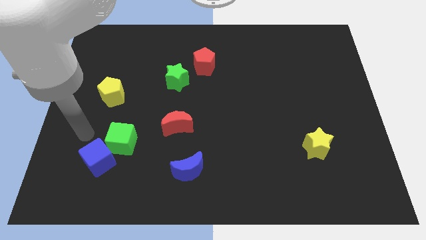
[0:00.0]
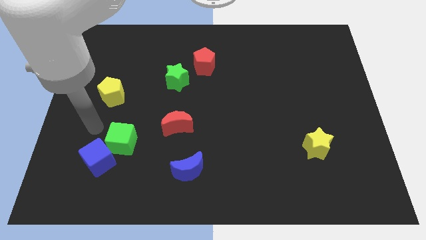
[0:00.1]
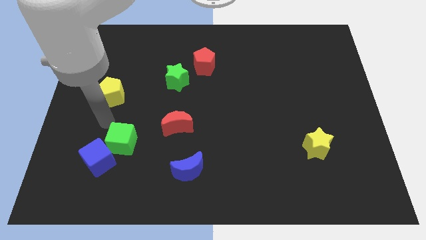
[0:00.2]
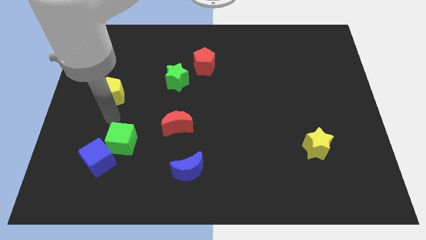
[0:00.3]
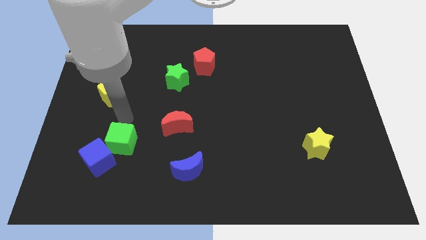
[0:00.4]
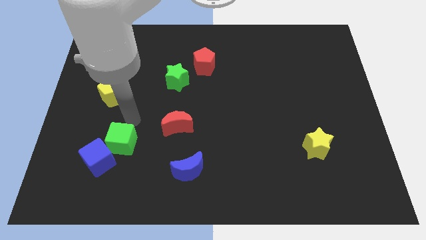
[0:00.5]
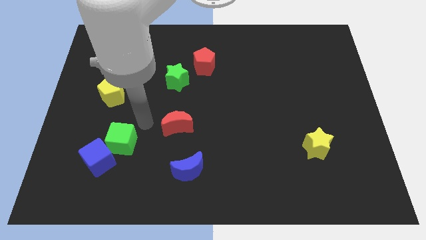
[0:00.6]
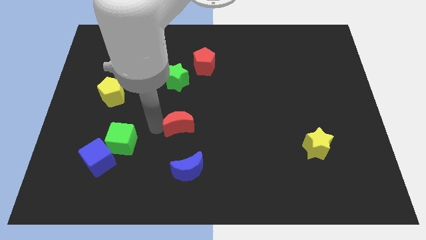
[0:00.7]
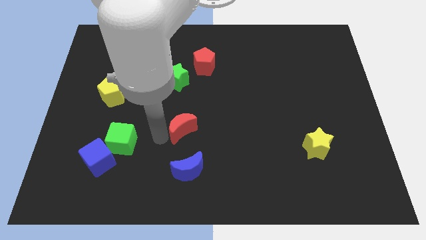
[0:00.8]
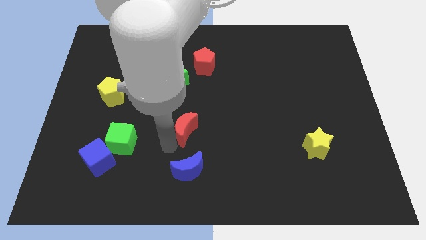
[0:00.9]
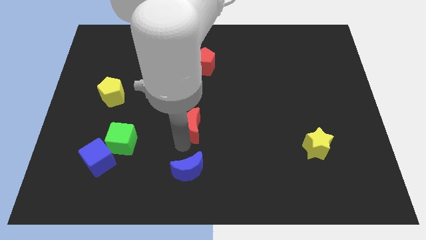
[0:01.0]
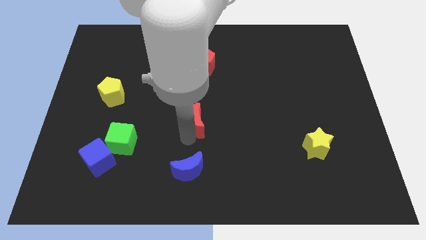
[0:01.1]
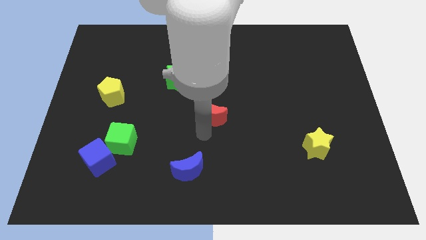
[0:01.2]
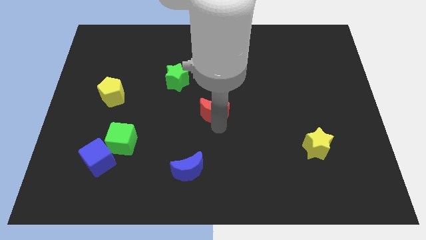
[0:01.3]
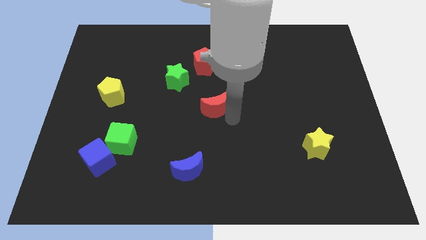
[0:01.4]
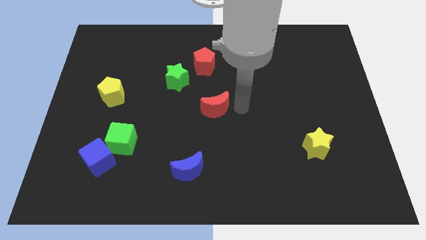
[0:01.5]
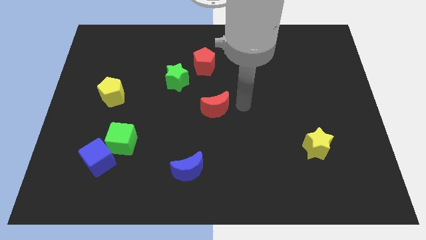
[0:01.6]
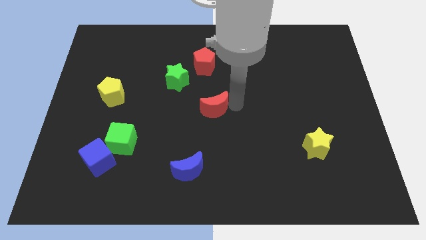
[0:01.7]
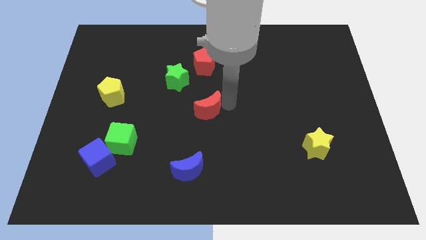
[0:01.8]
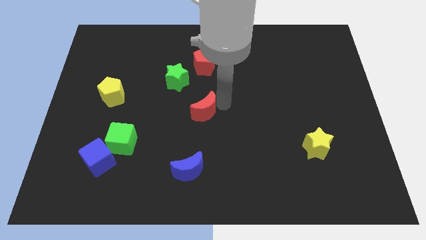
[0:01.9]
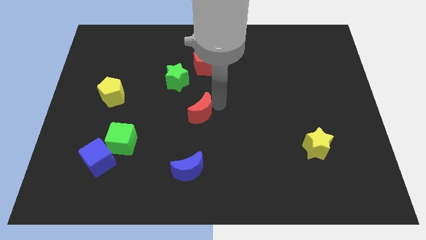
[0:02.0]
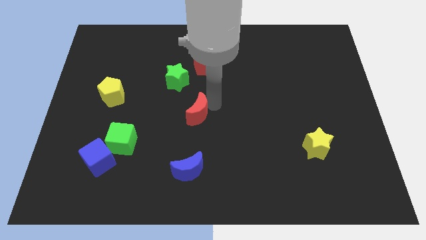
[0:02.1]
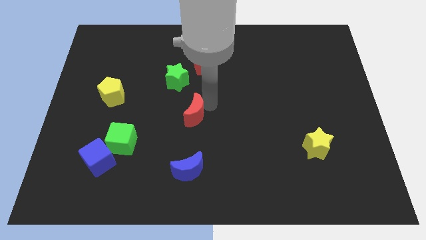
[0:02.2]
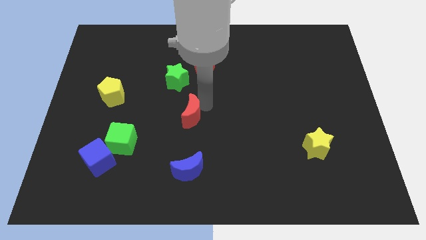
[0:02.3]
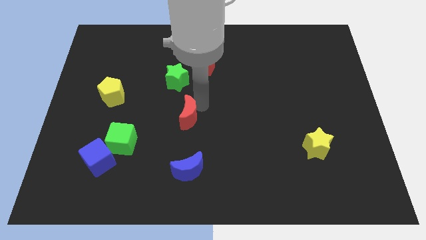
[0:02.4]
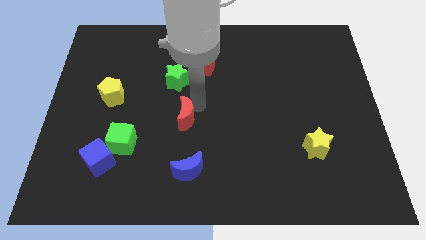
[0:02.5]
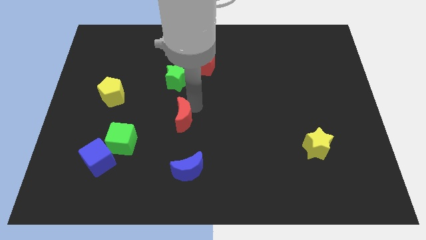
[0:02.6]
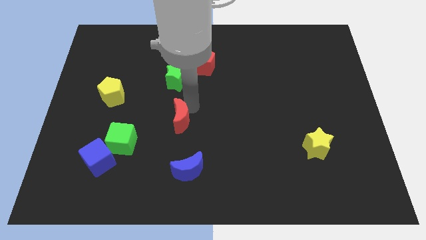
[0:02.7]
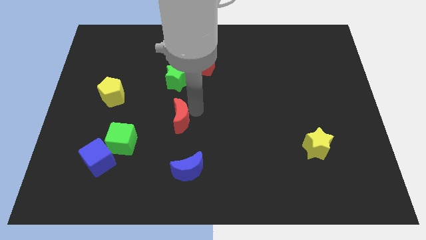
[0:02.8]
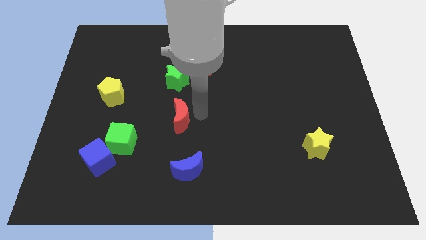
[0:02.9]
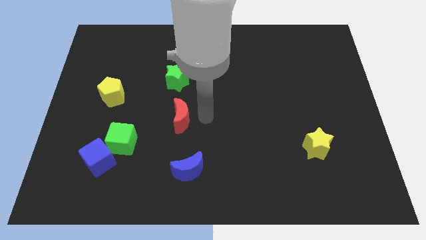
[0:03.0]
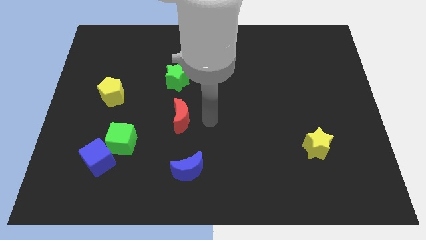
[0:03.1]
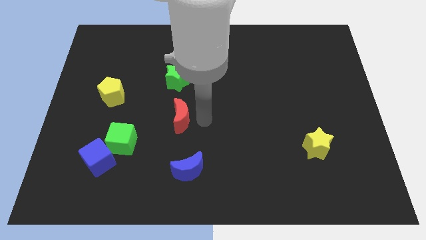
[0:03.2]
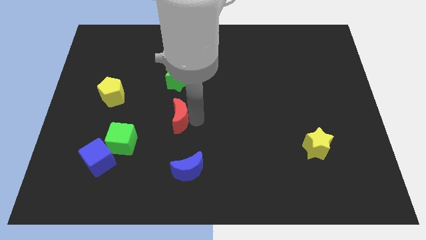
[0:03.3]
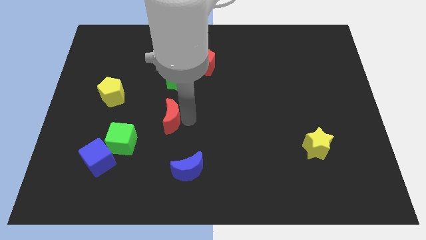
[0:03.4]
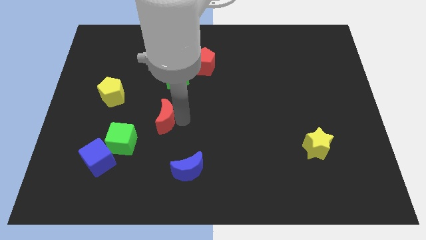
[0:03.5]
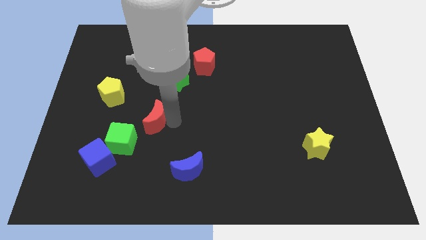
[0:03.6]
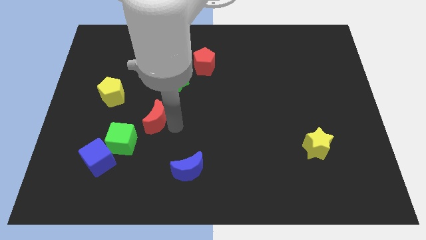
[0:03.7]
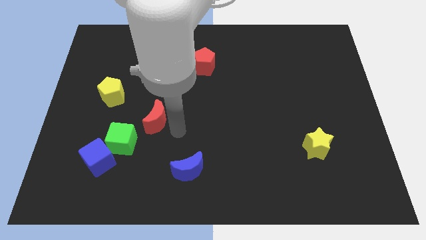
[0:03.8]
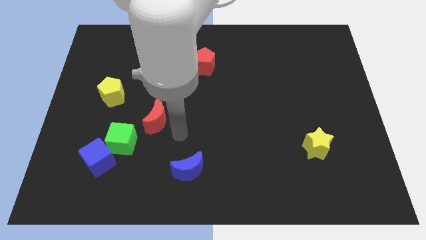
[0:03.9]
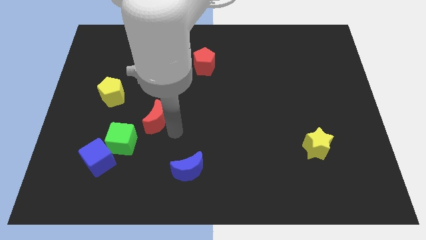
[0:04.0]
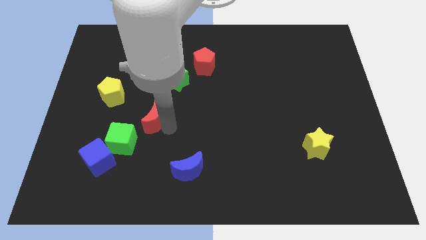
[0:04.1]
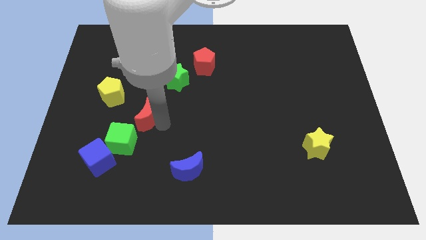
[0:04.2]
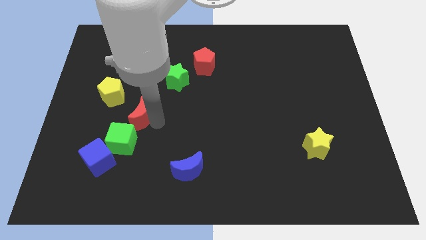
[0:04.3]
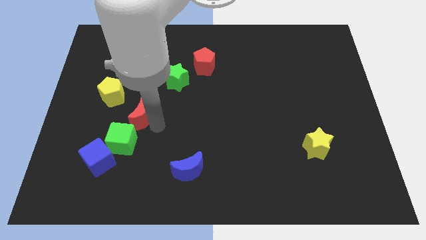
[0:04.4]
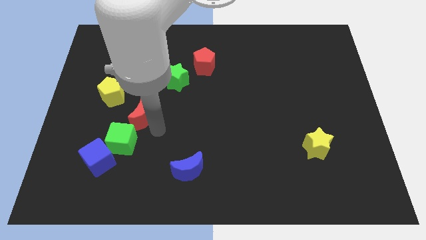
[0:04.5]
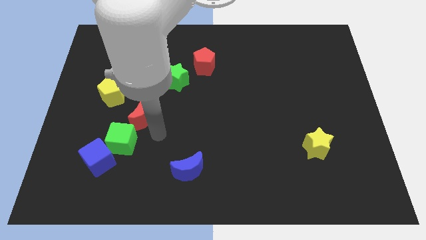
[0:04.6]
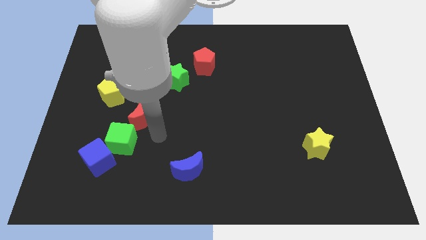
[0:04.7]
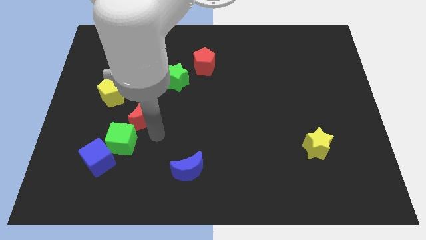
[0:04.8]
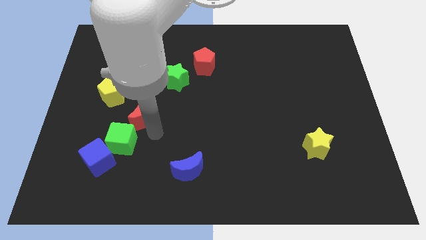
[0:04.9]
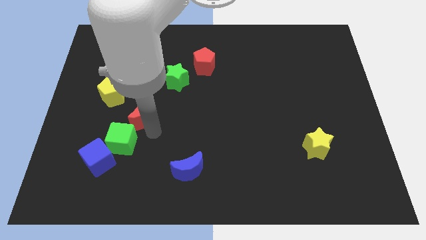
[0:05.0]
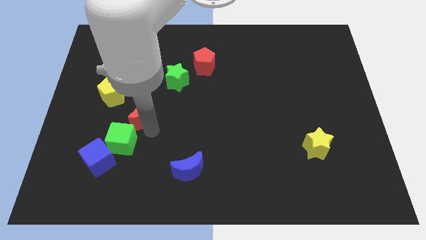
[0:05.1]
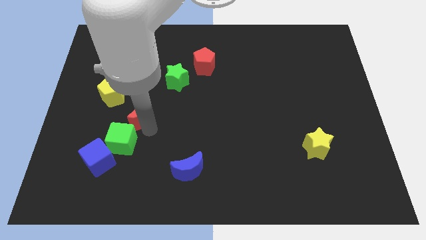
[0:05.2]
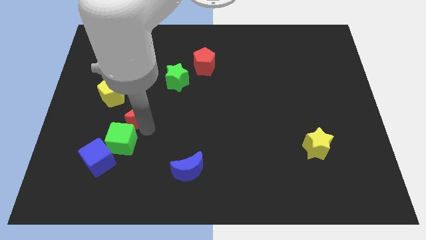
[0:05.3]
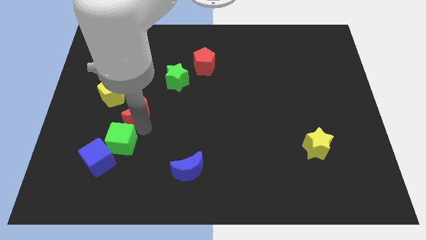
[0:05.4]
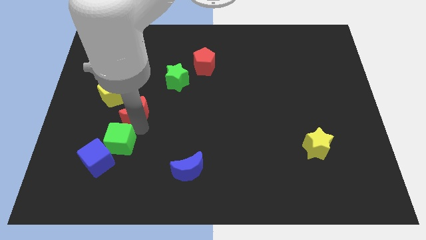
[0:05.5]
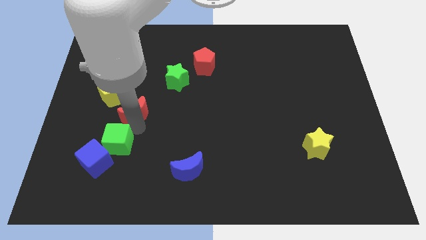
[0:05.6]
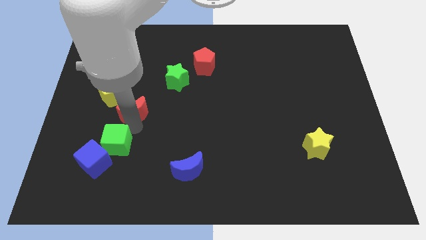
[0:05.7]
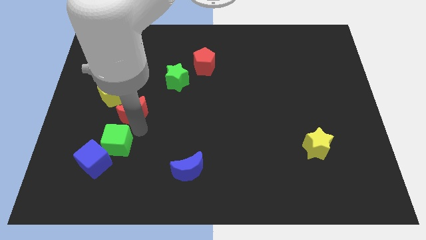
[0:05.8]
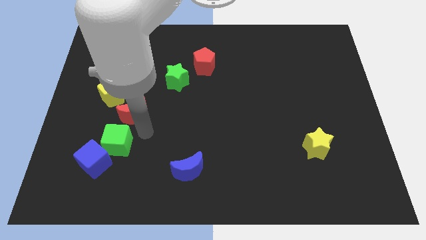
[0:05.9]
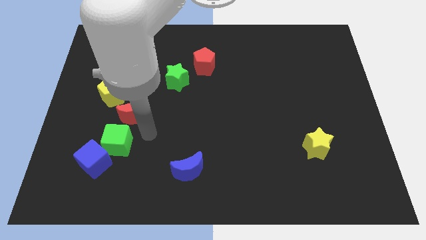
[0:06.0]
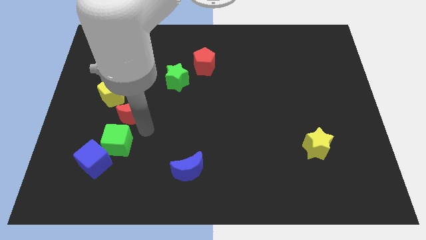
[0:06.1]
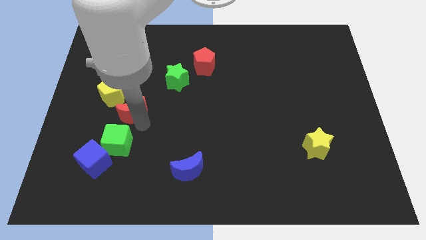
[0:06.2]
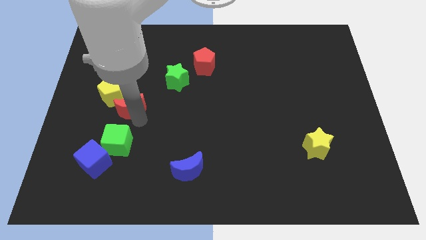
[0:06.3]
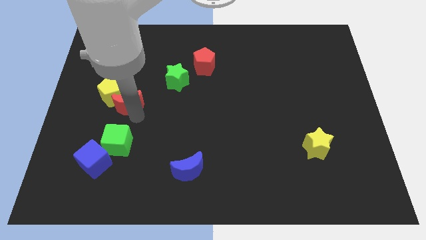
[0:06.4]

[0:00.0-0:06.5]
put the red moon towards the yellow pentagon

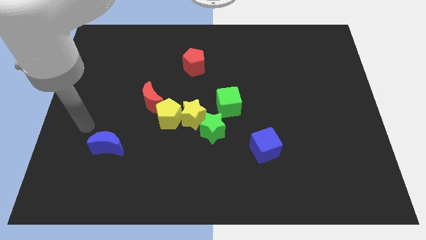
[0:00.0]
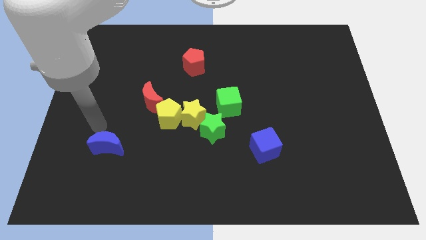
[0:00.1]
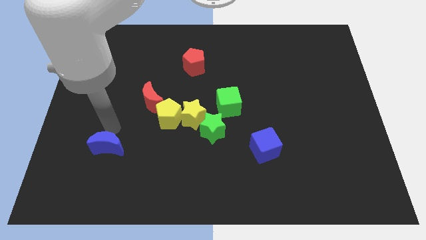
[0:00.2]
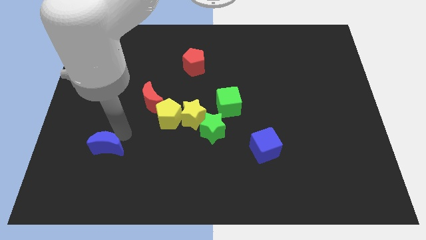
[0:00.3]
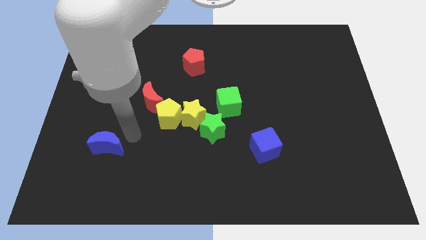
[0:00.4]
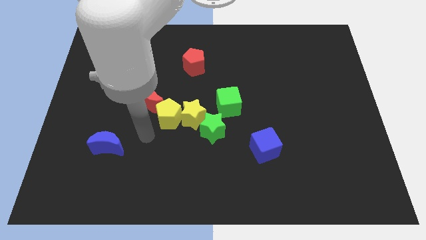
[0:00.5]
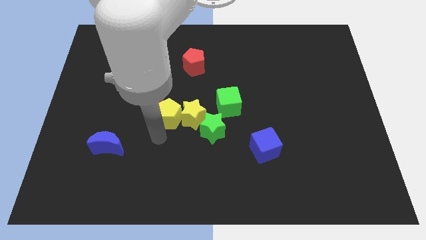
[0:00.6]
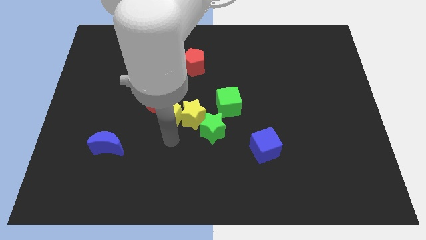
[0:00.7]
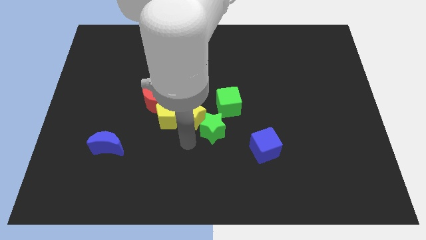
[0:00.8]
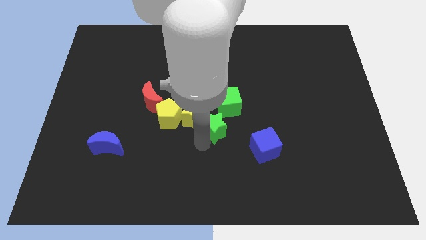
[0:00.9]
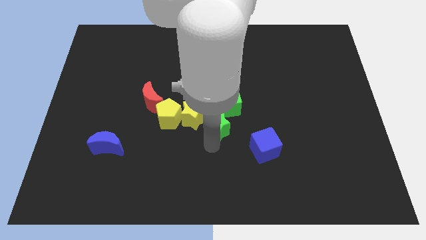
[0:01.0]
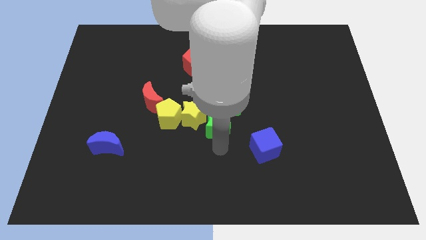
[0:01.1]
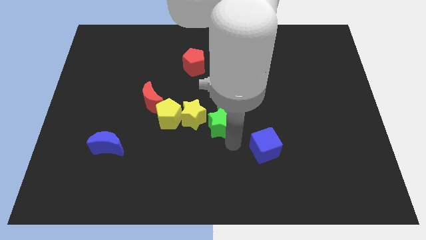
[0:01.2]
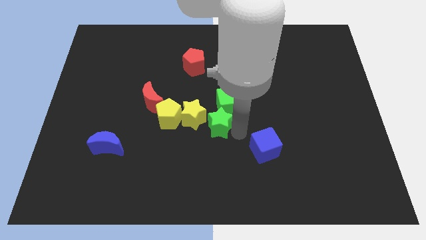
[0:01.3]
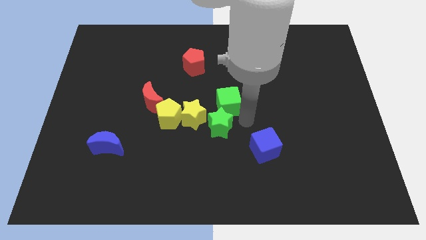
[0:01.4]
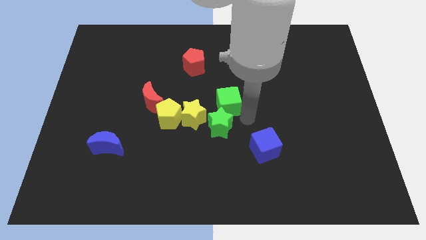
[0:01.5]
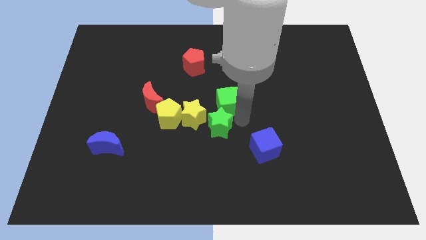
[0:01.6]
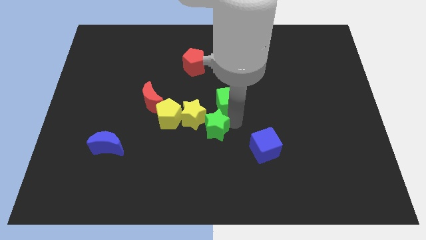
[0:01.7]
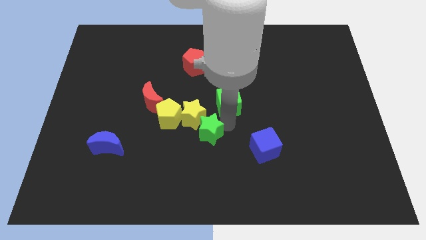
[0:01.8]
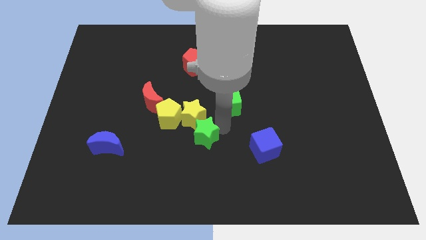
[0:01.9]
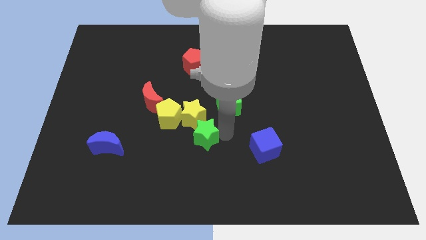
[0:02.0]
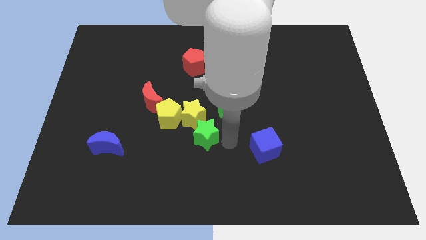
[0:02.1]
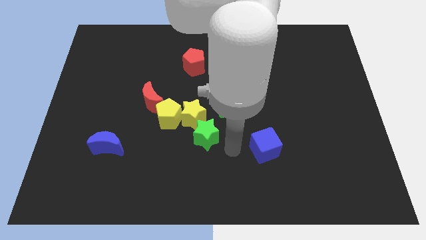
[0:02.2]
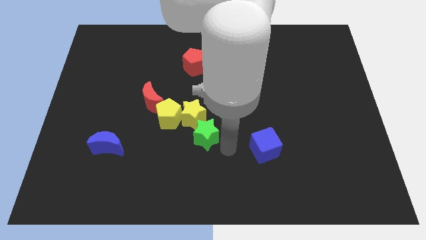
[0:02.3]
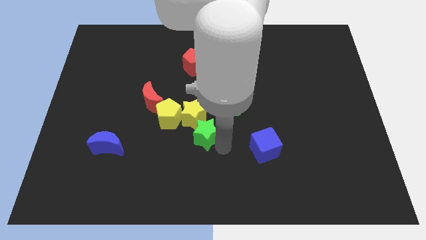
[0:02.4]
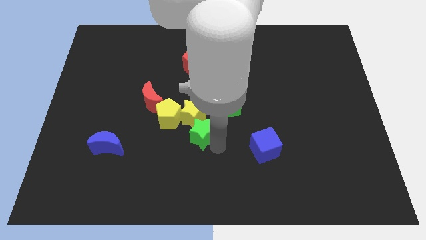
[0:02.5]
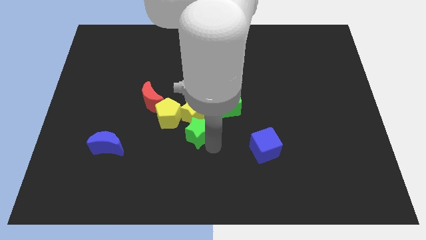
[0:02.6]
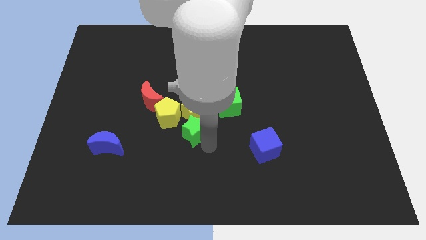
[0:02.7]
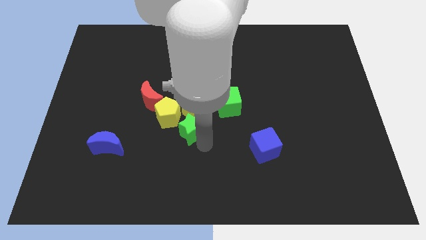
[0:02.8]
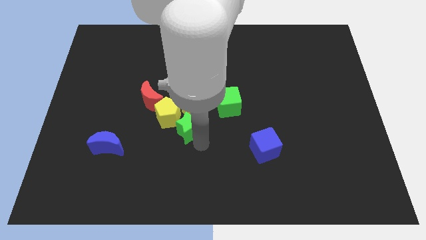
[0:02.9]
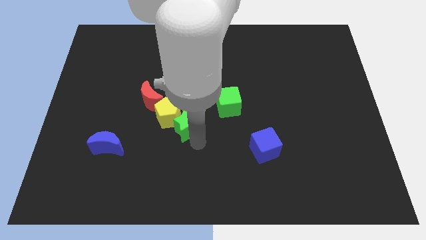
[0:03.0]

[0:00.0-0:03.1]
slide the green star next to the yellow pentagon
